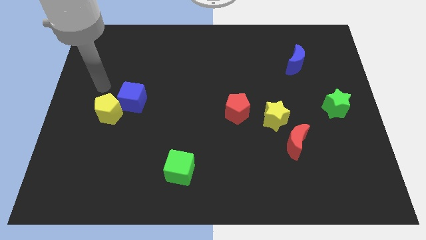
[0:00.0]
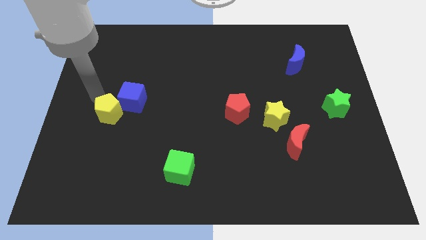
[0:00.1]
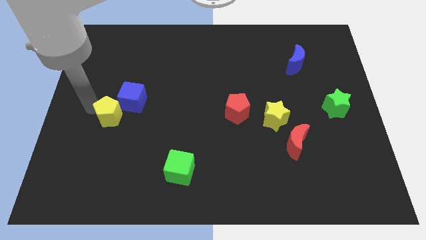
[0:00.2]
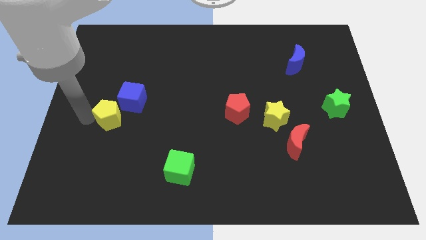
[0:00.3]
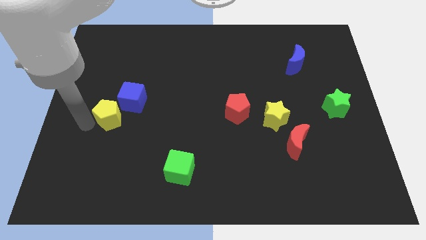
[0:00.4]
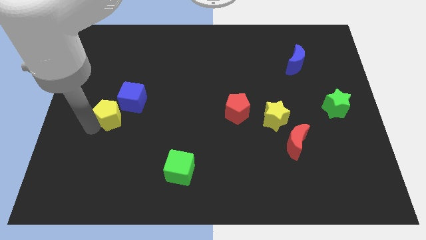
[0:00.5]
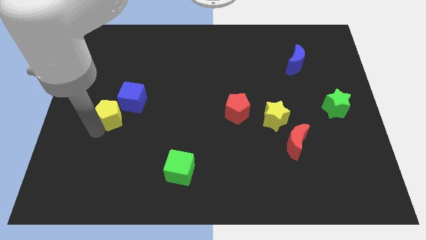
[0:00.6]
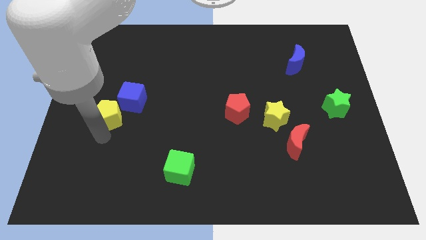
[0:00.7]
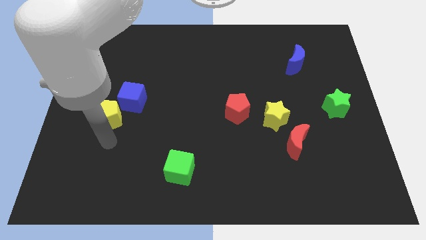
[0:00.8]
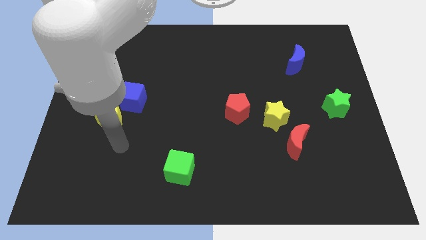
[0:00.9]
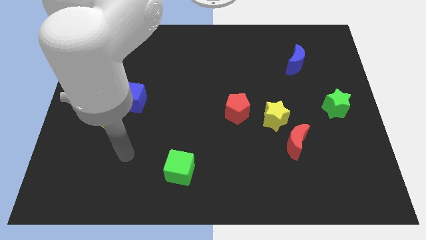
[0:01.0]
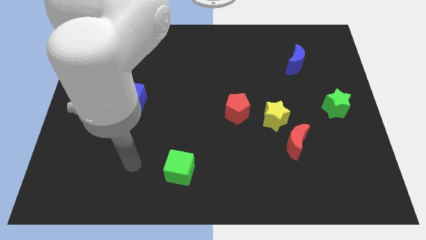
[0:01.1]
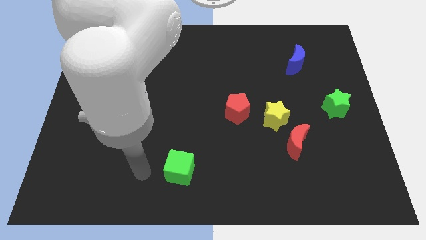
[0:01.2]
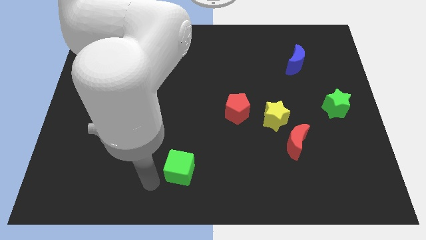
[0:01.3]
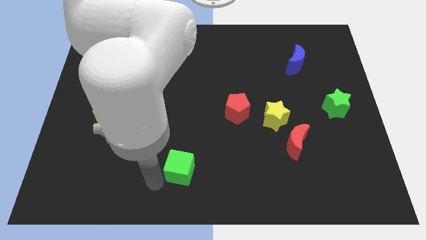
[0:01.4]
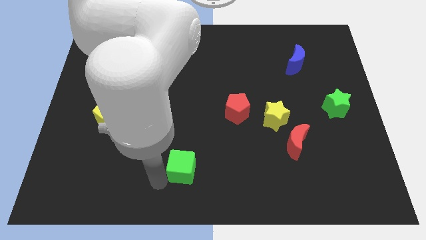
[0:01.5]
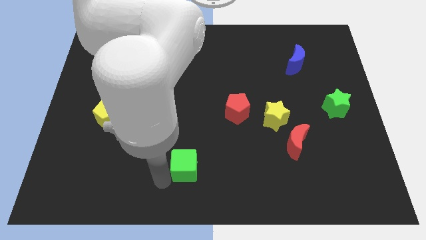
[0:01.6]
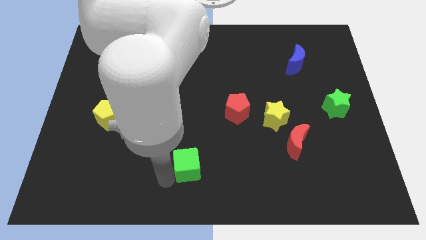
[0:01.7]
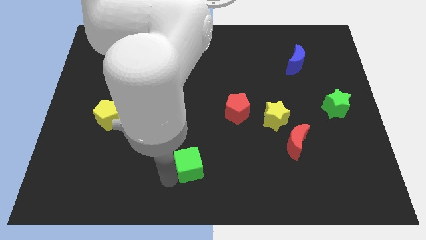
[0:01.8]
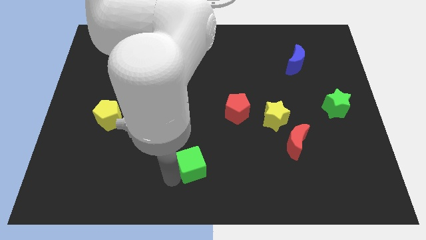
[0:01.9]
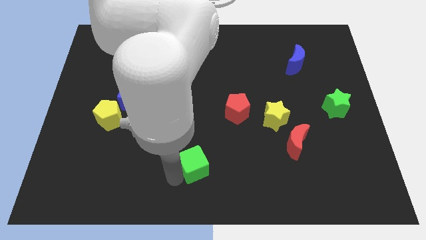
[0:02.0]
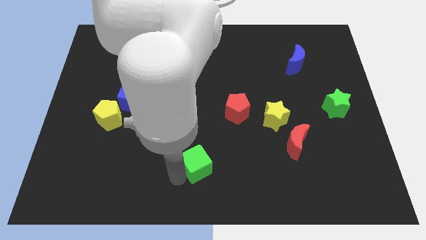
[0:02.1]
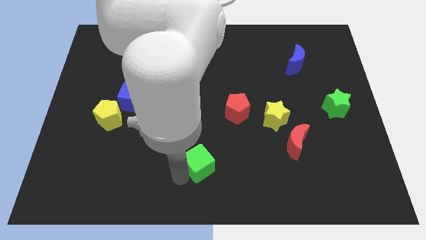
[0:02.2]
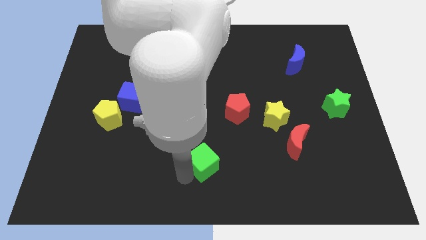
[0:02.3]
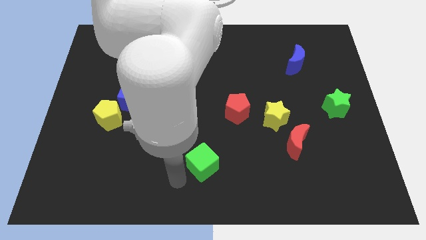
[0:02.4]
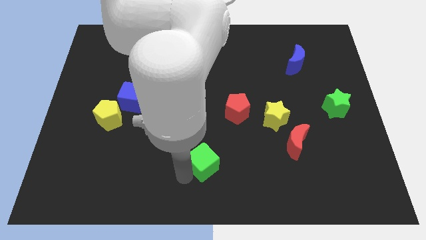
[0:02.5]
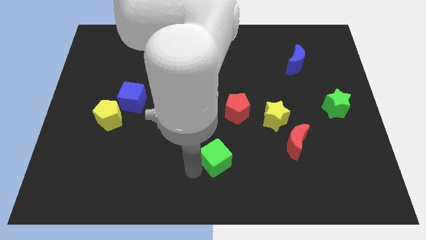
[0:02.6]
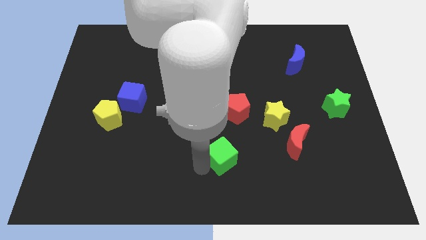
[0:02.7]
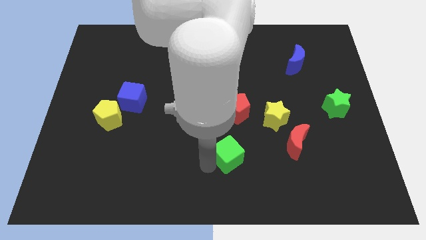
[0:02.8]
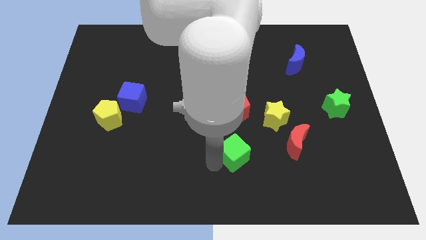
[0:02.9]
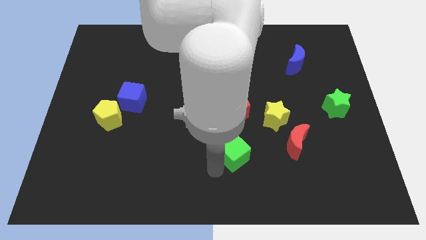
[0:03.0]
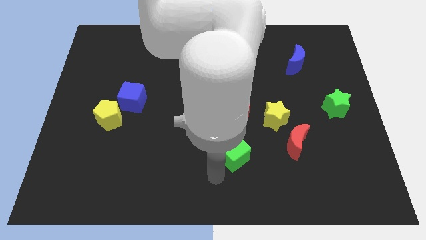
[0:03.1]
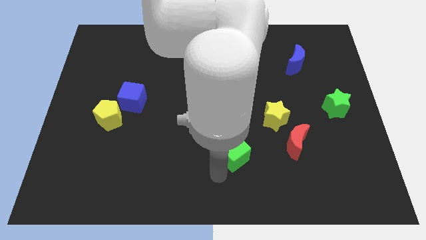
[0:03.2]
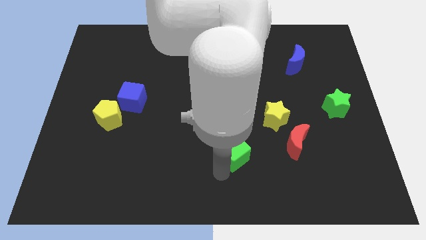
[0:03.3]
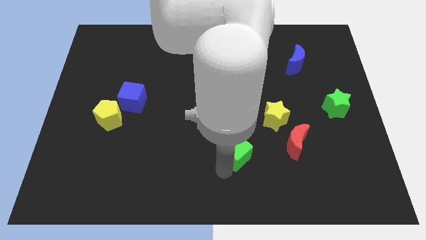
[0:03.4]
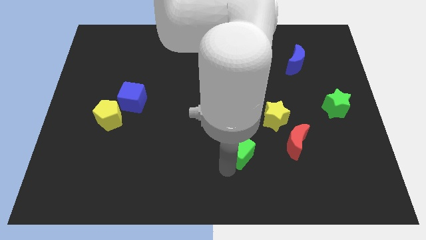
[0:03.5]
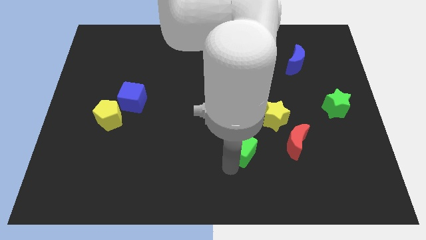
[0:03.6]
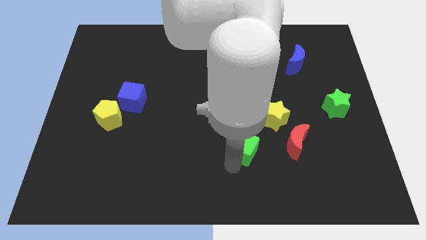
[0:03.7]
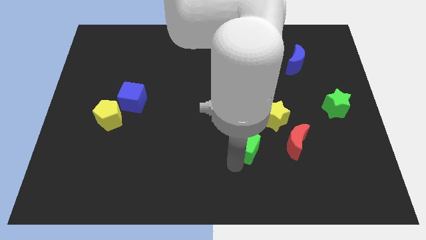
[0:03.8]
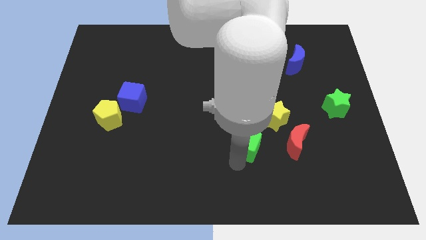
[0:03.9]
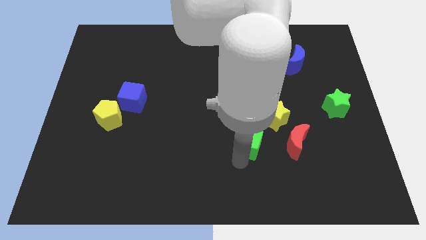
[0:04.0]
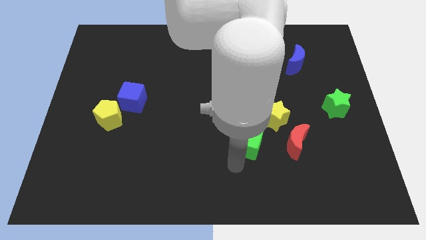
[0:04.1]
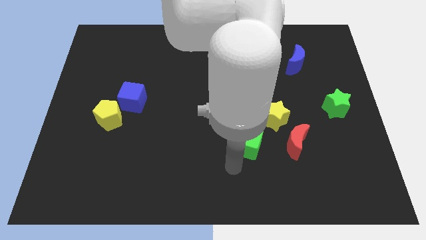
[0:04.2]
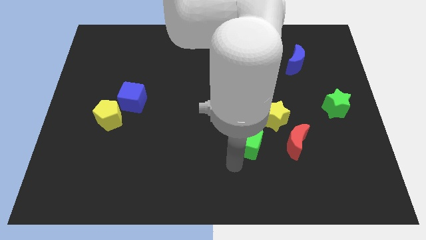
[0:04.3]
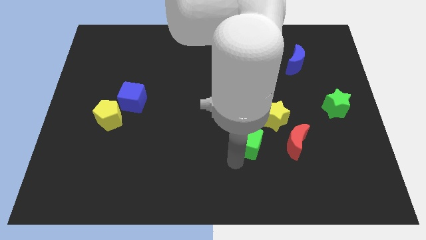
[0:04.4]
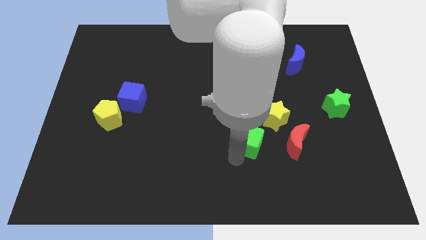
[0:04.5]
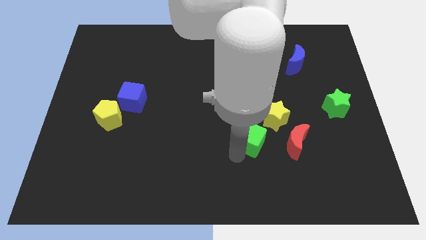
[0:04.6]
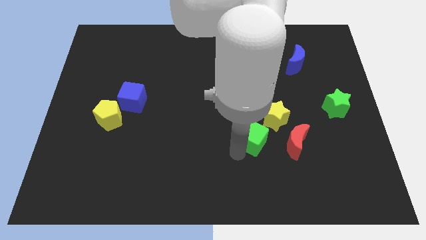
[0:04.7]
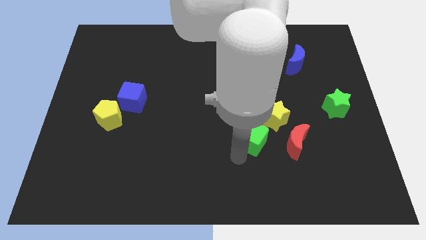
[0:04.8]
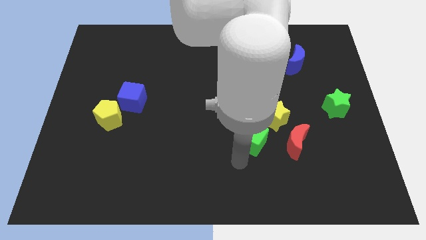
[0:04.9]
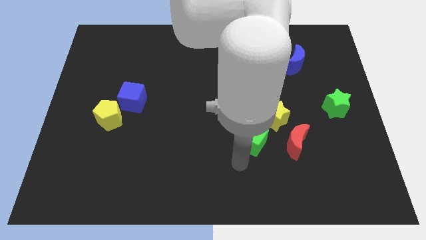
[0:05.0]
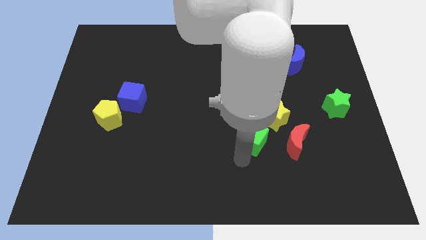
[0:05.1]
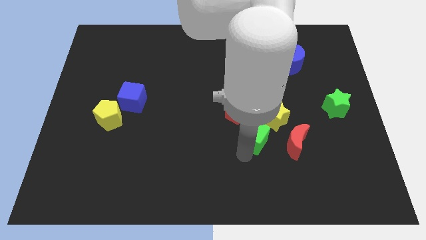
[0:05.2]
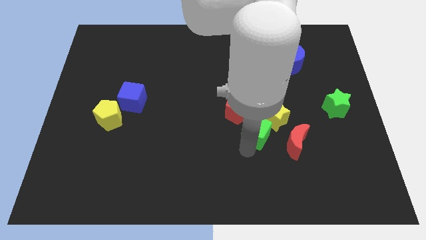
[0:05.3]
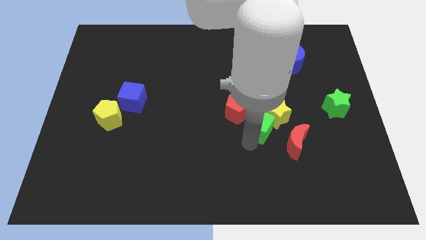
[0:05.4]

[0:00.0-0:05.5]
put the green cube next to the yellow star

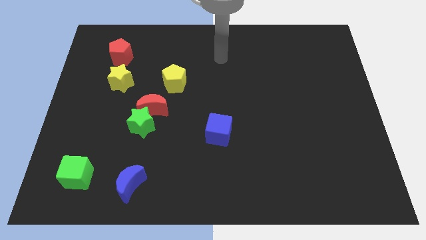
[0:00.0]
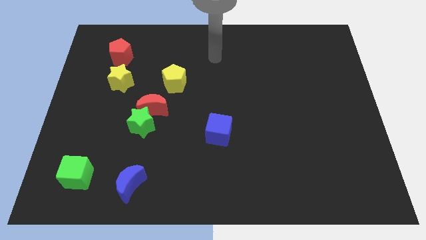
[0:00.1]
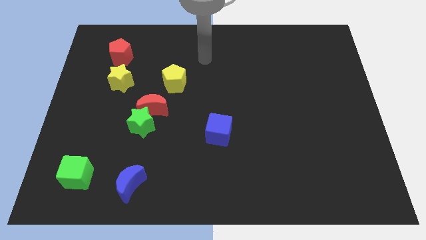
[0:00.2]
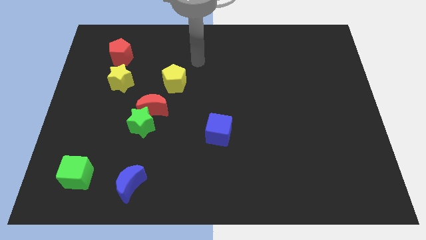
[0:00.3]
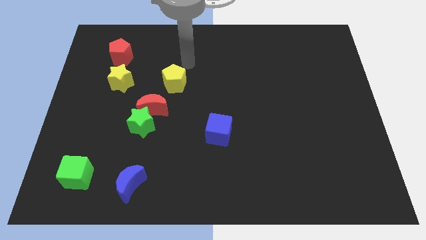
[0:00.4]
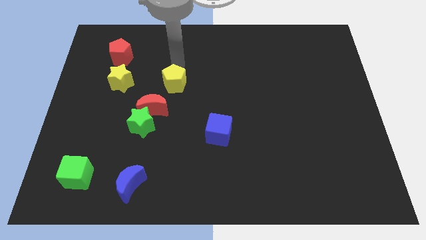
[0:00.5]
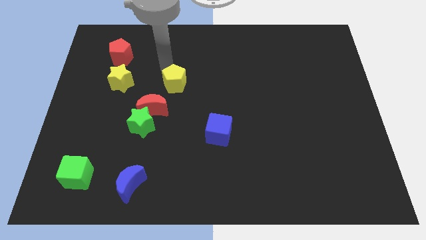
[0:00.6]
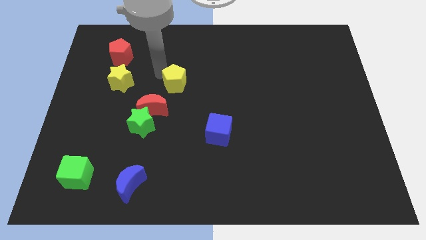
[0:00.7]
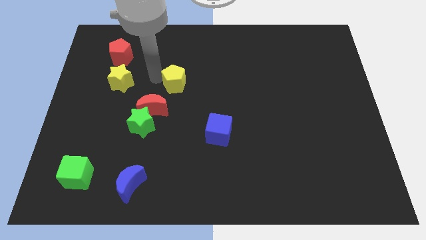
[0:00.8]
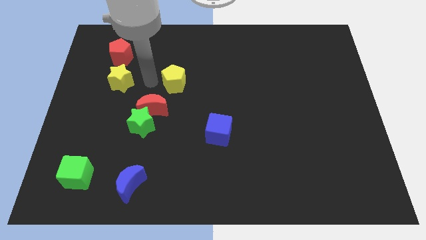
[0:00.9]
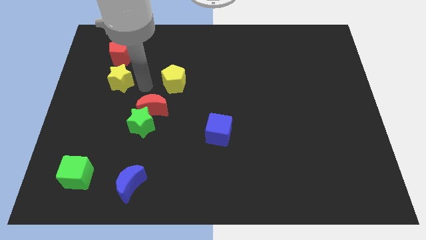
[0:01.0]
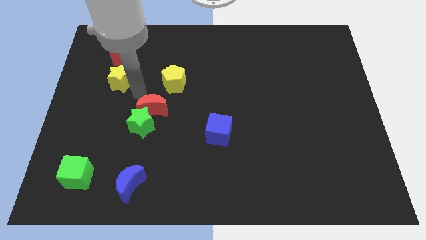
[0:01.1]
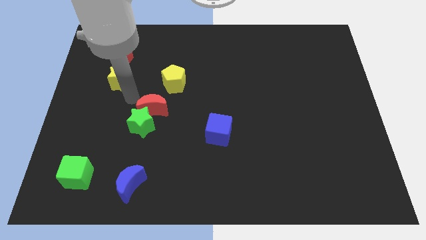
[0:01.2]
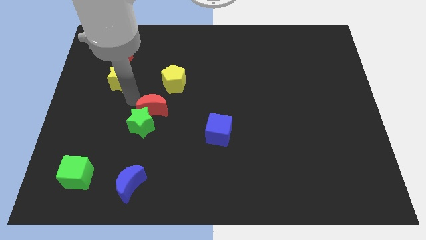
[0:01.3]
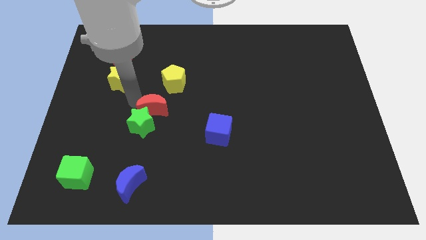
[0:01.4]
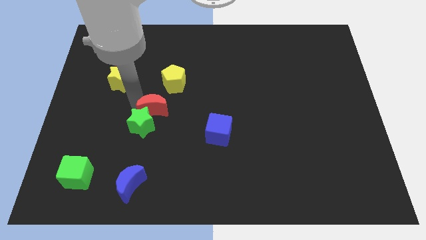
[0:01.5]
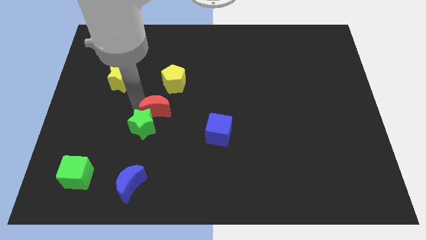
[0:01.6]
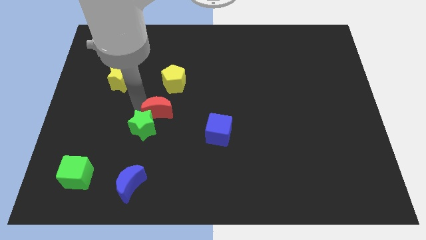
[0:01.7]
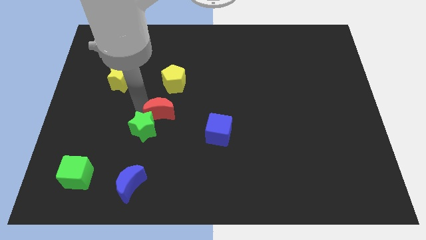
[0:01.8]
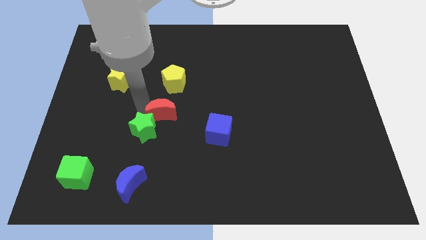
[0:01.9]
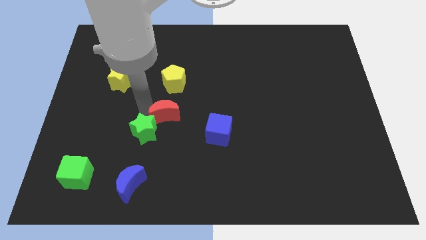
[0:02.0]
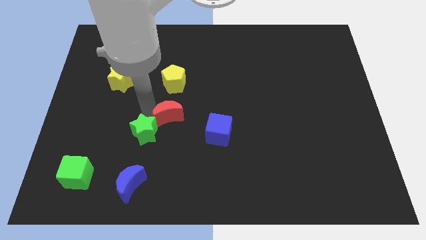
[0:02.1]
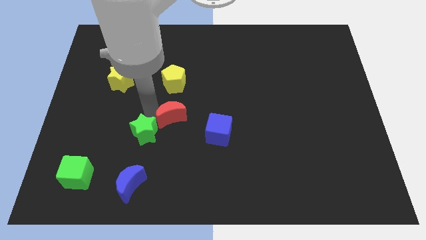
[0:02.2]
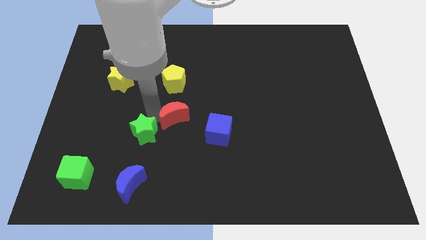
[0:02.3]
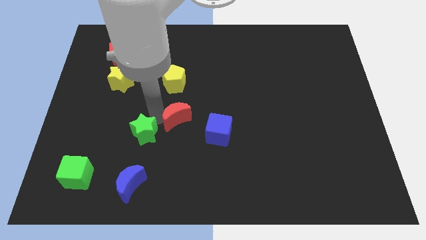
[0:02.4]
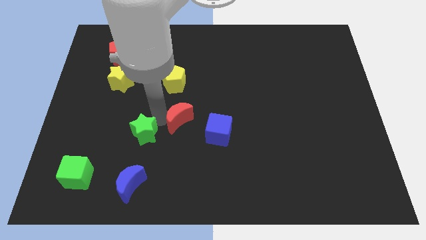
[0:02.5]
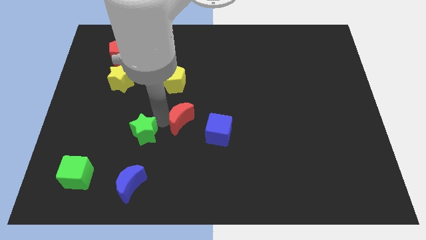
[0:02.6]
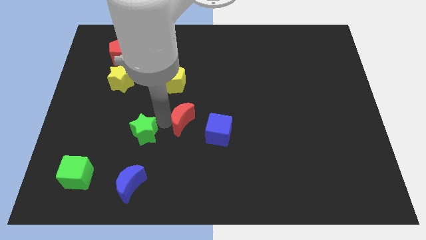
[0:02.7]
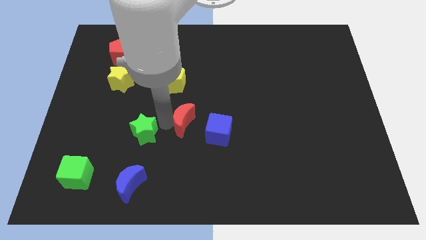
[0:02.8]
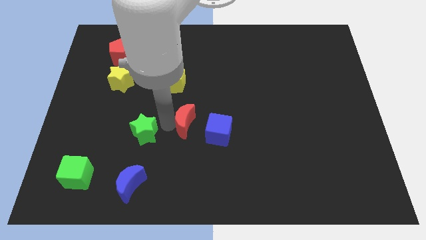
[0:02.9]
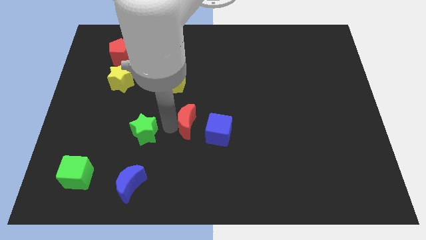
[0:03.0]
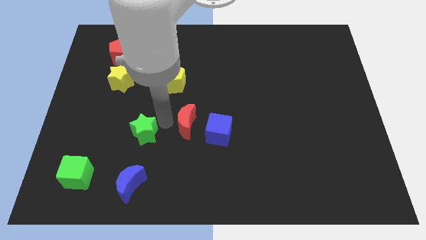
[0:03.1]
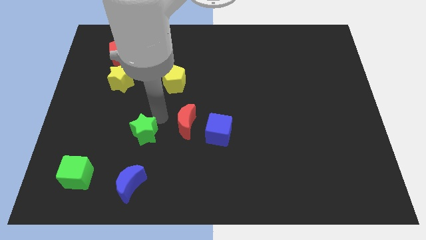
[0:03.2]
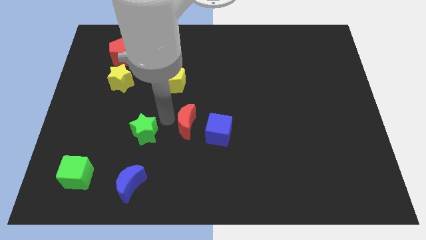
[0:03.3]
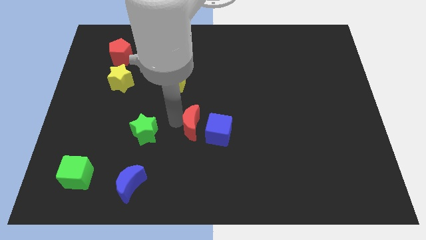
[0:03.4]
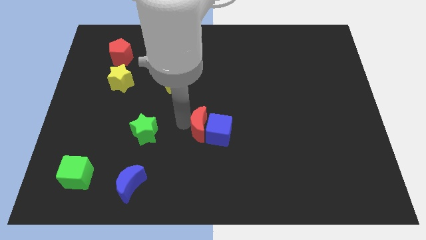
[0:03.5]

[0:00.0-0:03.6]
put the red moon next to the blue cube
